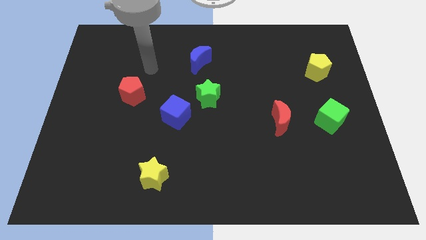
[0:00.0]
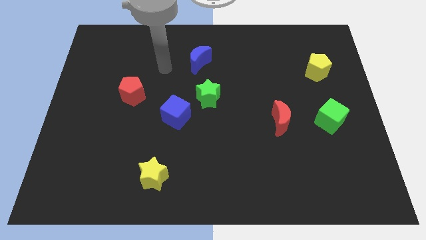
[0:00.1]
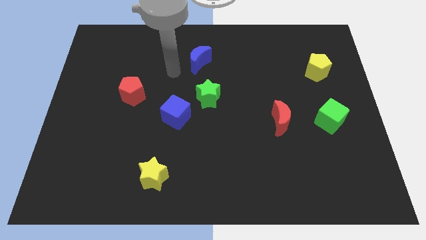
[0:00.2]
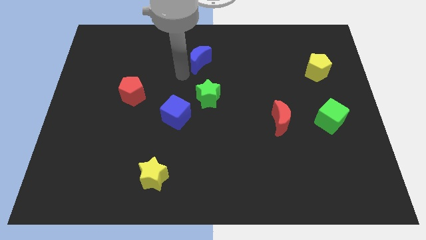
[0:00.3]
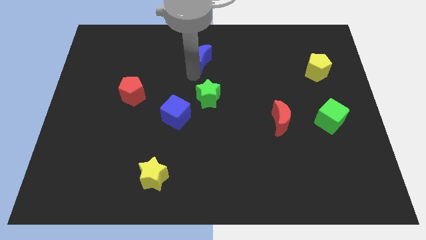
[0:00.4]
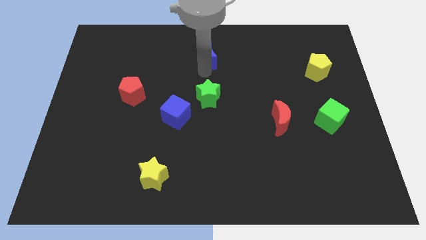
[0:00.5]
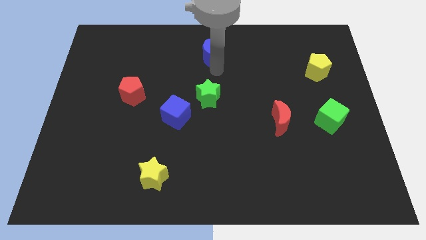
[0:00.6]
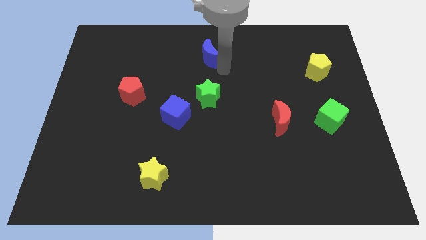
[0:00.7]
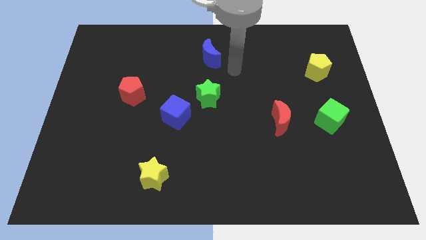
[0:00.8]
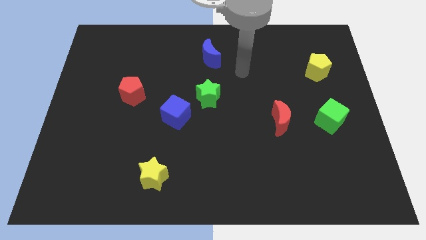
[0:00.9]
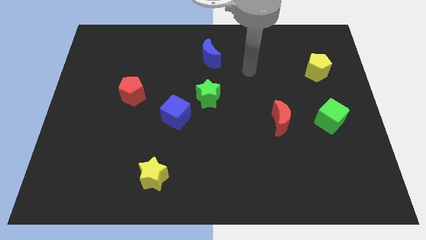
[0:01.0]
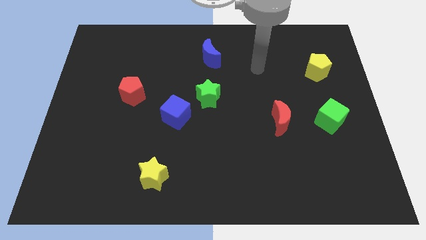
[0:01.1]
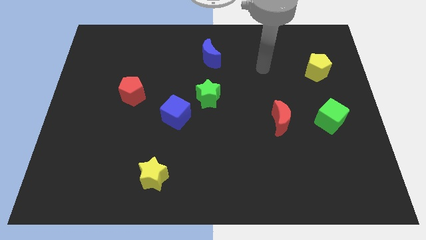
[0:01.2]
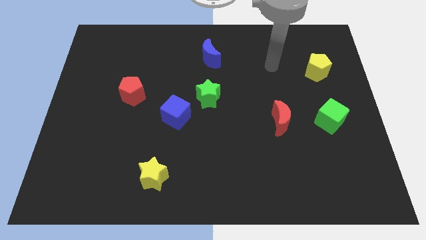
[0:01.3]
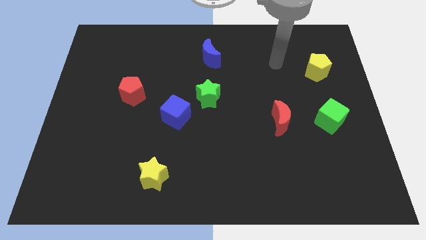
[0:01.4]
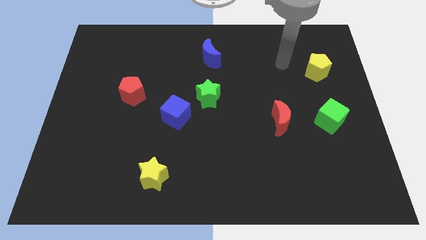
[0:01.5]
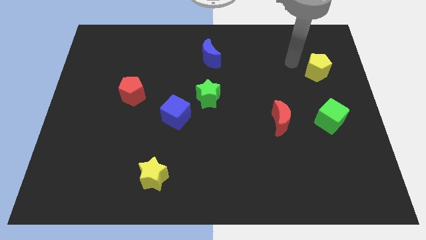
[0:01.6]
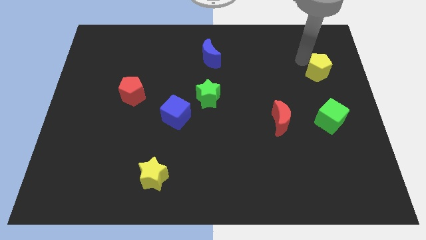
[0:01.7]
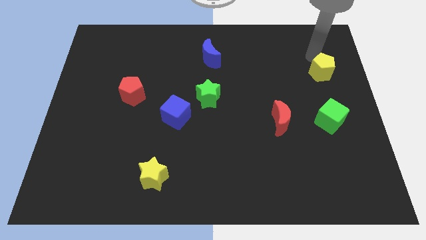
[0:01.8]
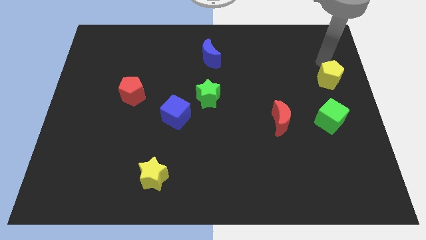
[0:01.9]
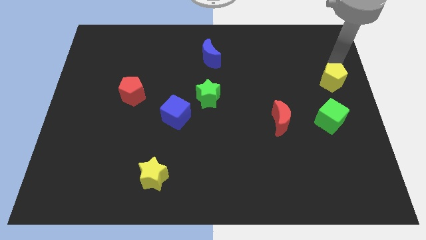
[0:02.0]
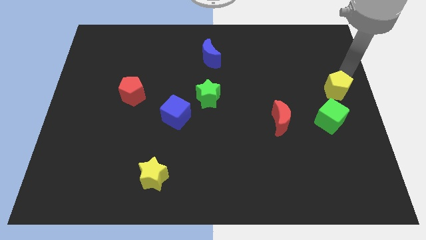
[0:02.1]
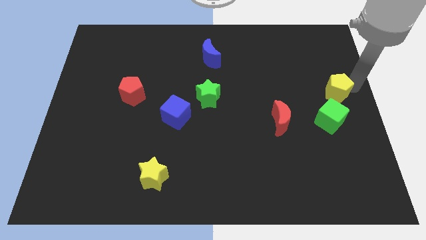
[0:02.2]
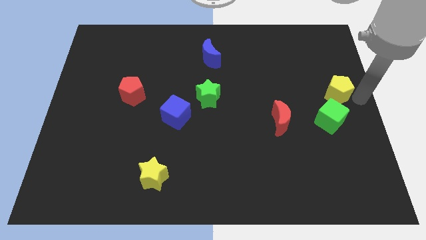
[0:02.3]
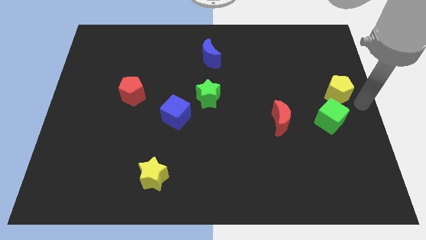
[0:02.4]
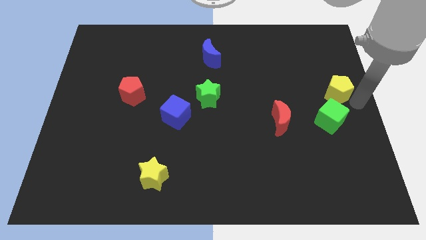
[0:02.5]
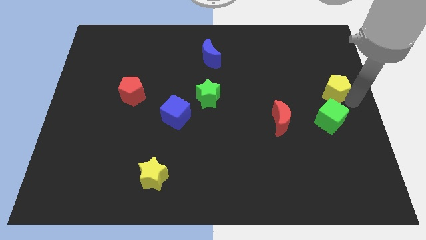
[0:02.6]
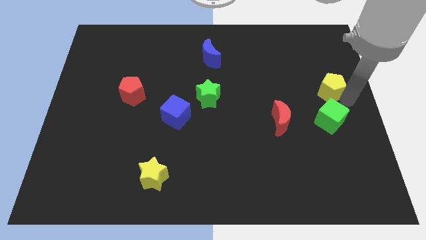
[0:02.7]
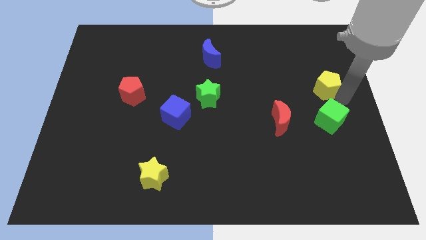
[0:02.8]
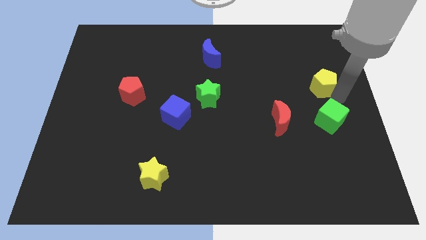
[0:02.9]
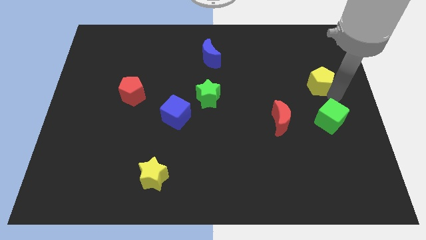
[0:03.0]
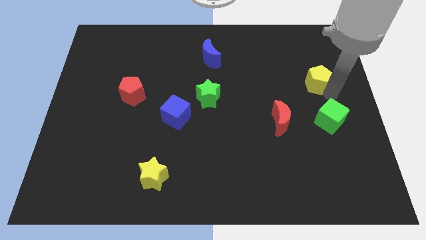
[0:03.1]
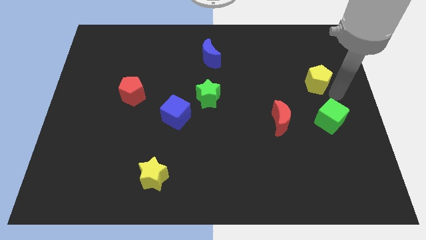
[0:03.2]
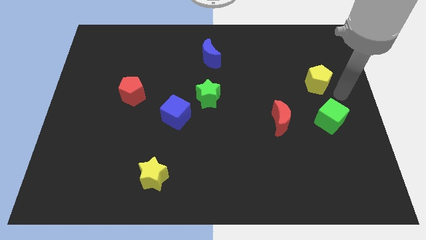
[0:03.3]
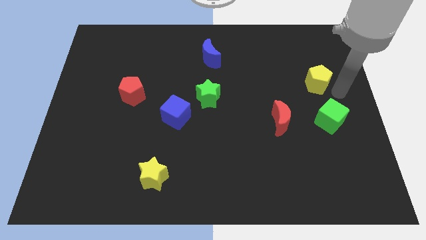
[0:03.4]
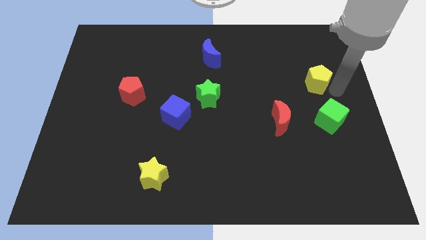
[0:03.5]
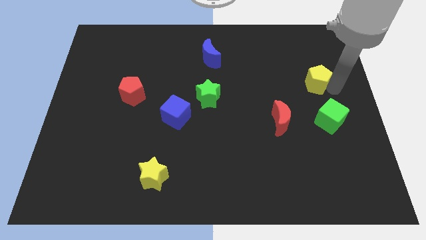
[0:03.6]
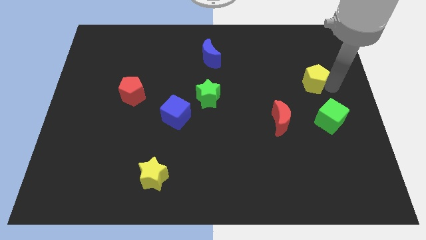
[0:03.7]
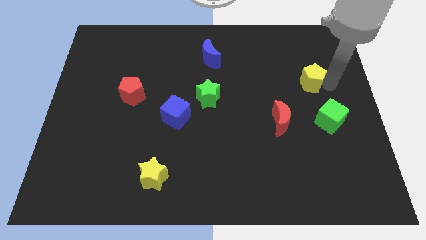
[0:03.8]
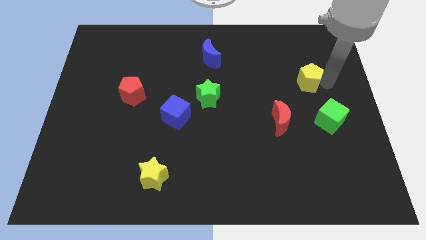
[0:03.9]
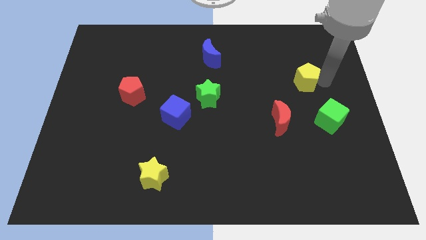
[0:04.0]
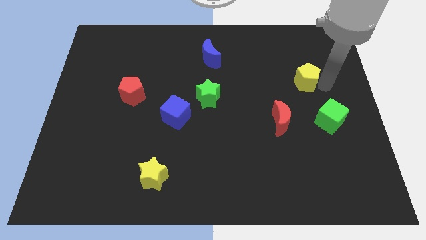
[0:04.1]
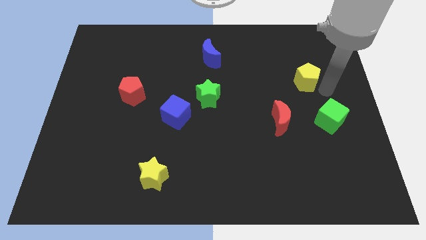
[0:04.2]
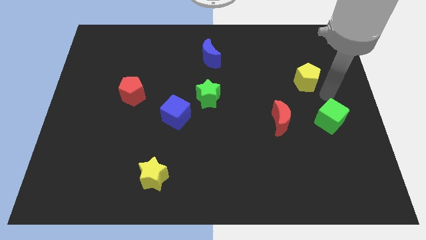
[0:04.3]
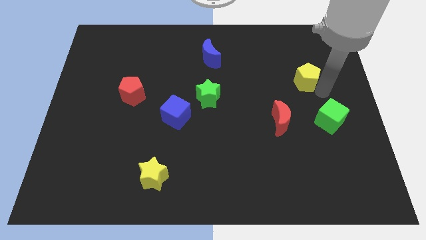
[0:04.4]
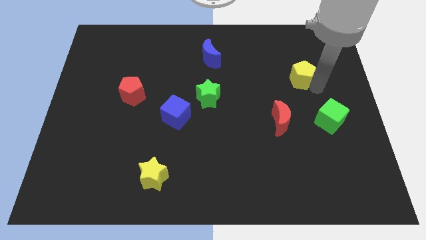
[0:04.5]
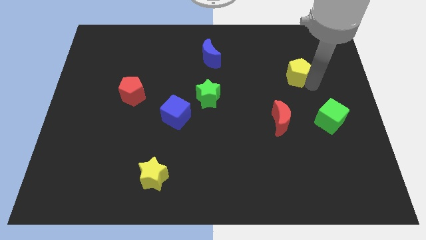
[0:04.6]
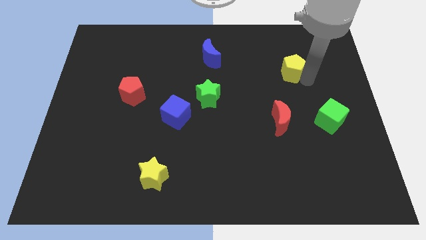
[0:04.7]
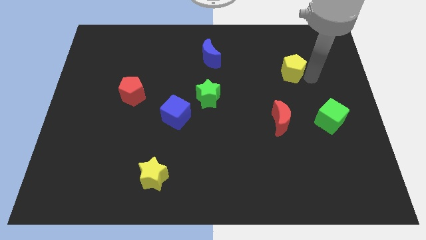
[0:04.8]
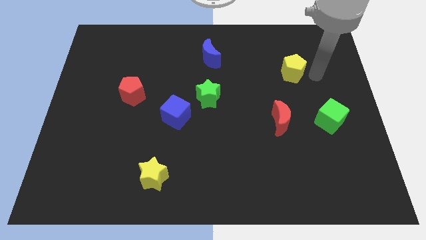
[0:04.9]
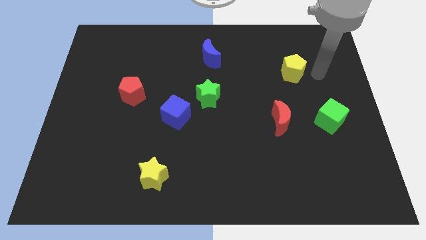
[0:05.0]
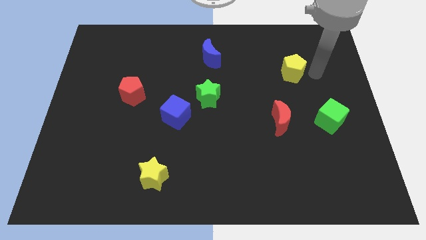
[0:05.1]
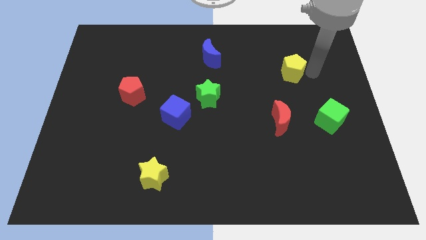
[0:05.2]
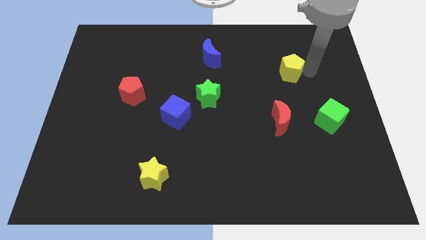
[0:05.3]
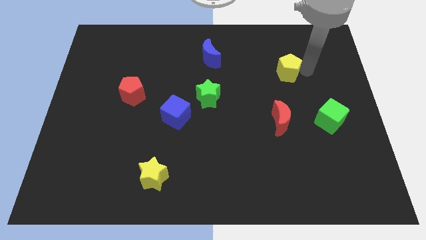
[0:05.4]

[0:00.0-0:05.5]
slightly slide the yellow pentagon left

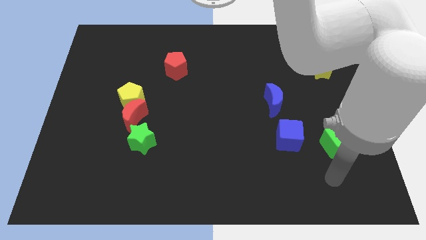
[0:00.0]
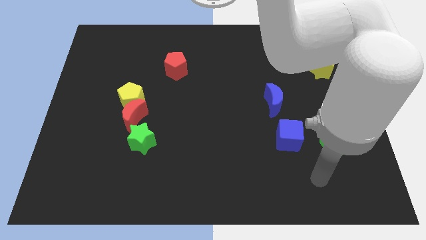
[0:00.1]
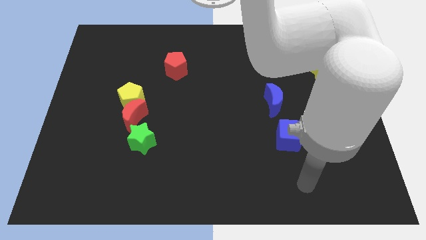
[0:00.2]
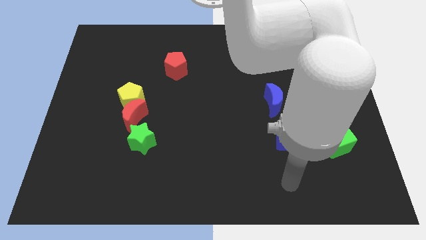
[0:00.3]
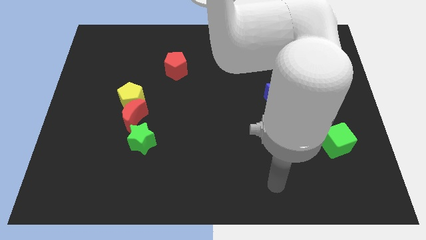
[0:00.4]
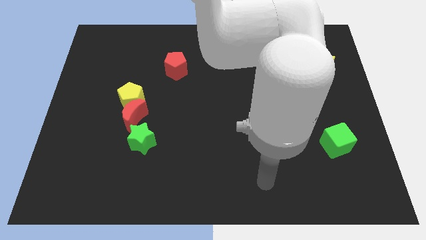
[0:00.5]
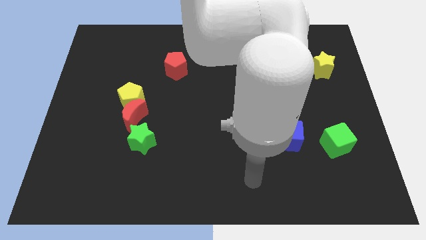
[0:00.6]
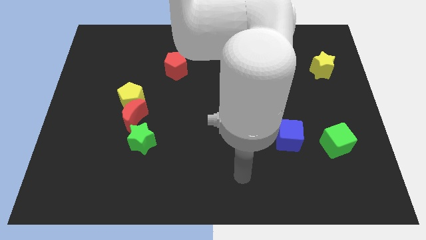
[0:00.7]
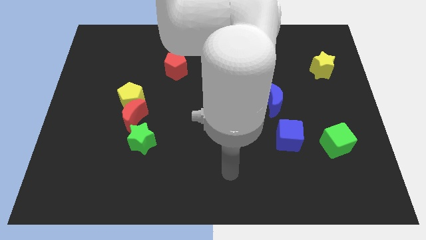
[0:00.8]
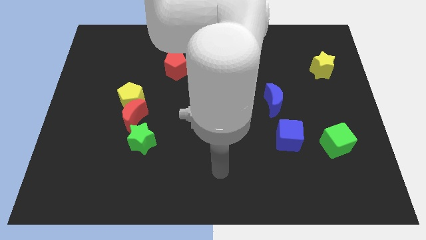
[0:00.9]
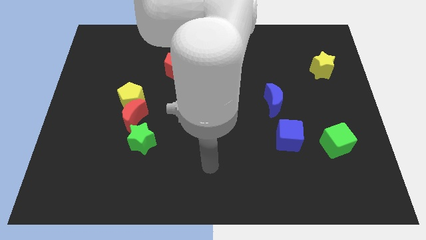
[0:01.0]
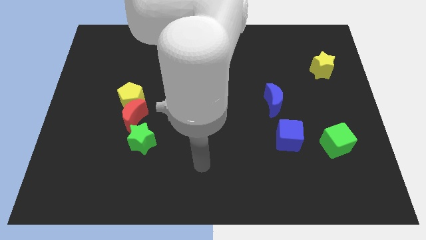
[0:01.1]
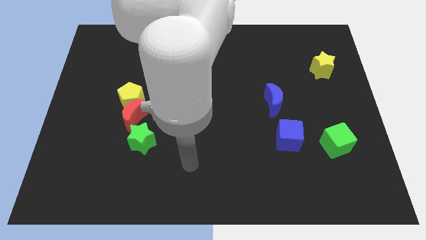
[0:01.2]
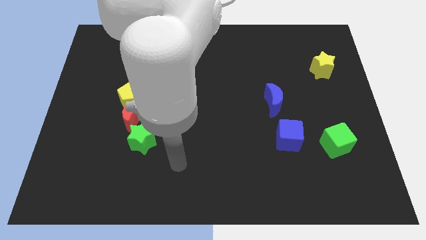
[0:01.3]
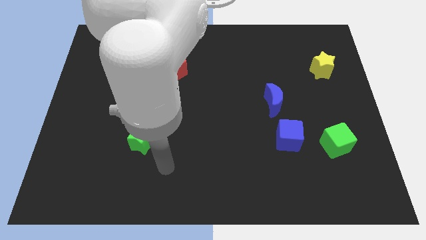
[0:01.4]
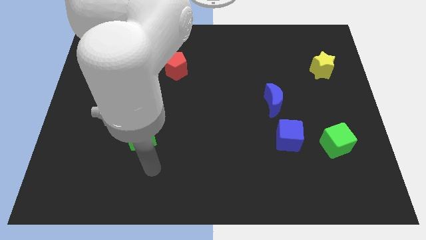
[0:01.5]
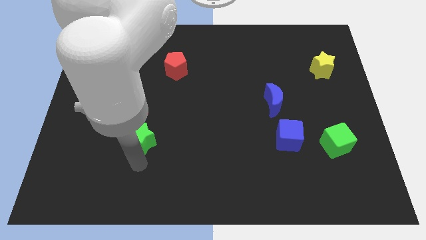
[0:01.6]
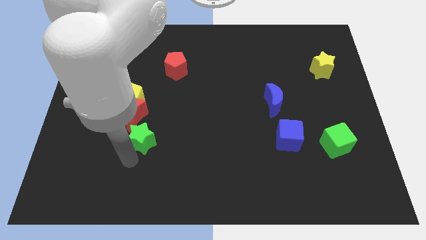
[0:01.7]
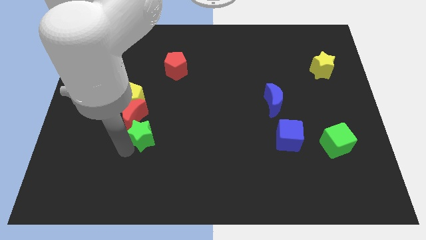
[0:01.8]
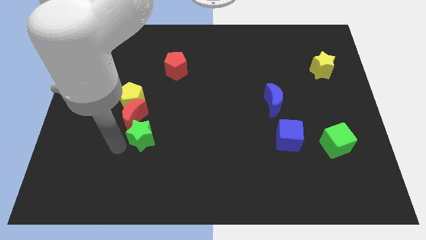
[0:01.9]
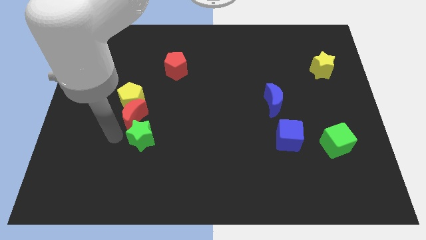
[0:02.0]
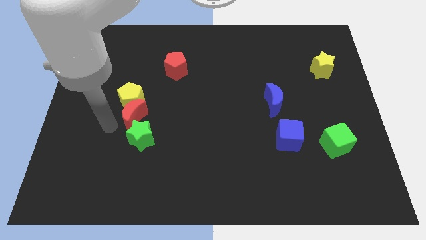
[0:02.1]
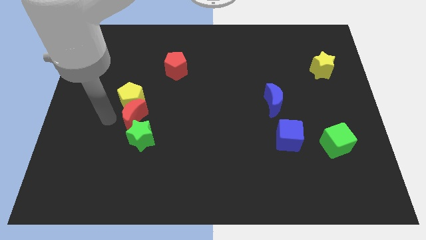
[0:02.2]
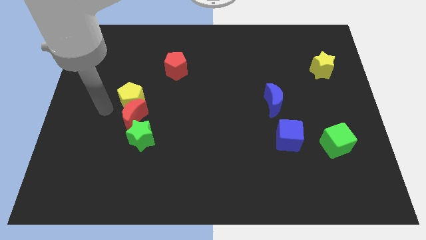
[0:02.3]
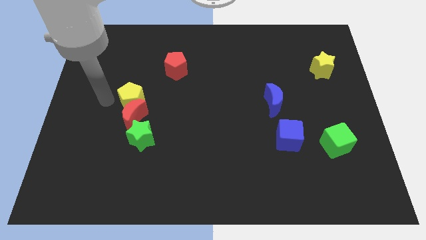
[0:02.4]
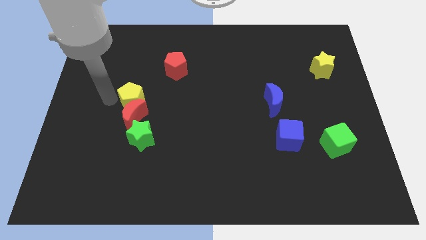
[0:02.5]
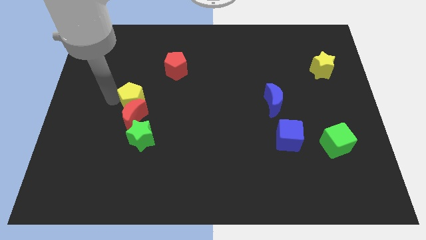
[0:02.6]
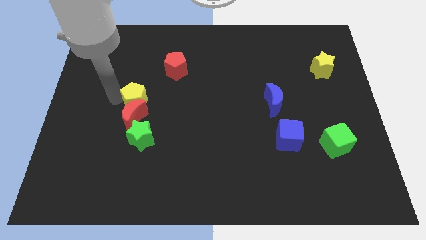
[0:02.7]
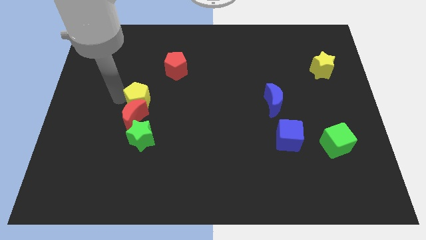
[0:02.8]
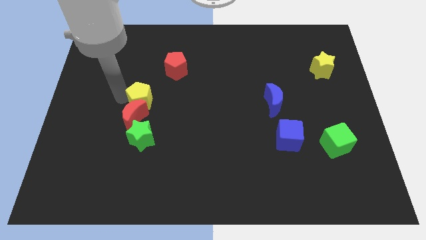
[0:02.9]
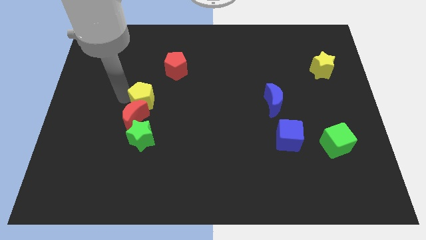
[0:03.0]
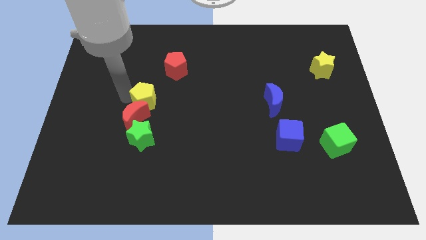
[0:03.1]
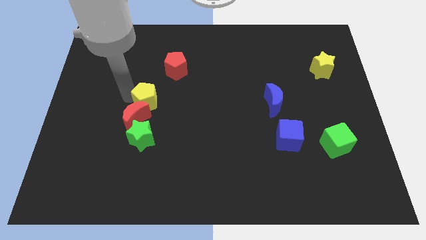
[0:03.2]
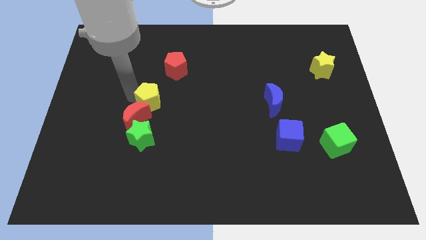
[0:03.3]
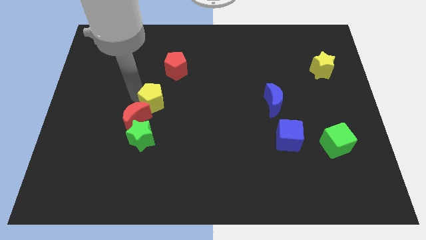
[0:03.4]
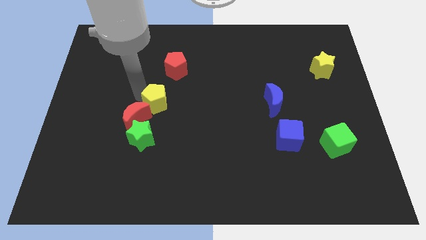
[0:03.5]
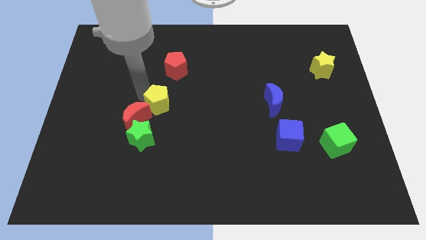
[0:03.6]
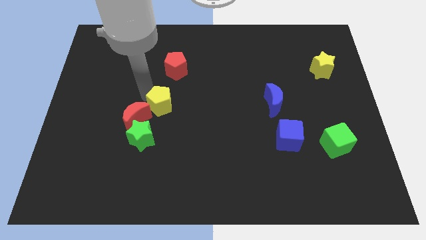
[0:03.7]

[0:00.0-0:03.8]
slide the yellow pentagon to the right a bit
